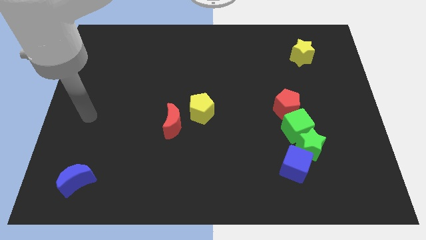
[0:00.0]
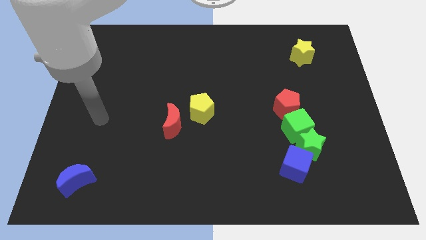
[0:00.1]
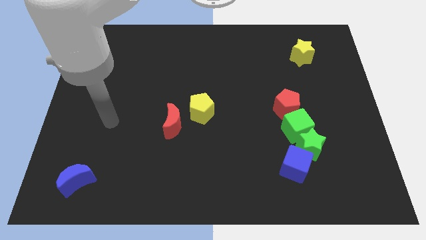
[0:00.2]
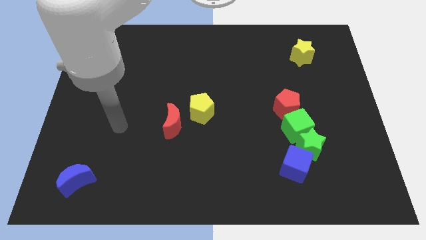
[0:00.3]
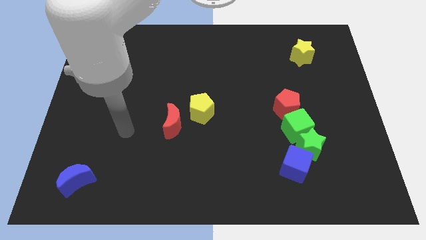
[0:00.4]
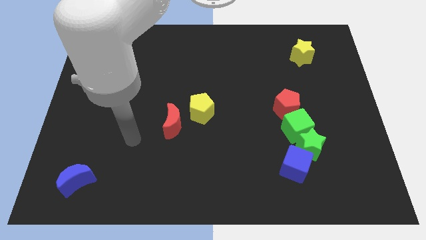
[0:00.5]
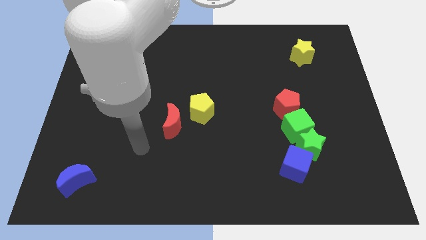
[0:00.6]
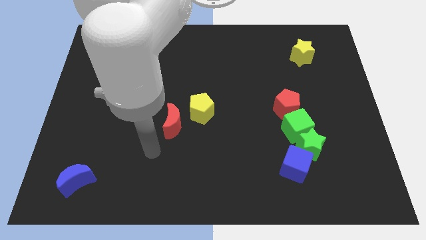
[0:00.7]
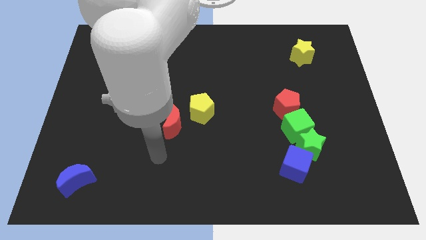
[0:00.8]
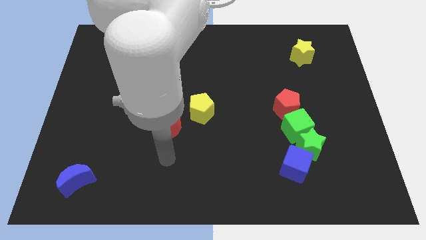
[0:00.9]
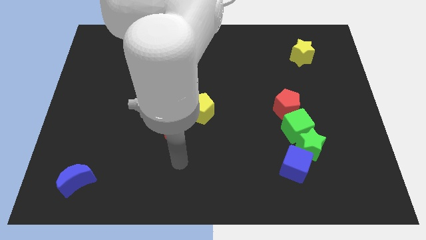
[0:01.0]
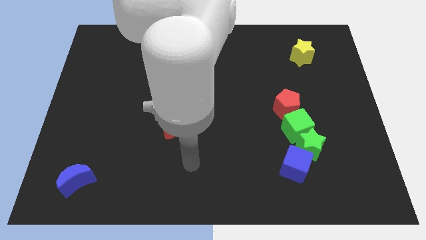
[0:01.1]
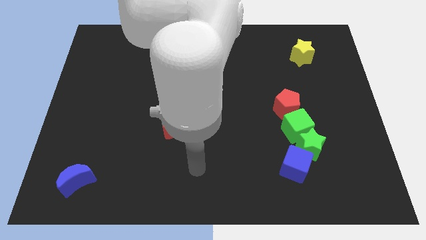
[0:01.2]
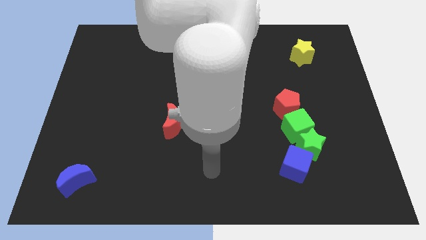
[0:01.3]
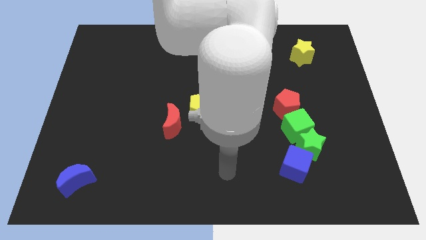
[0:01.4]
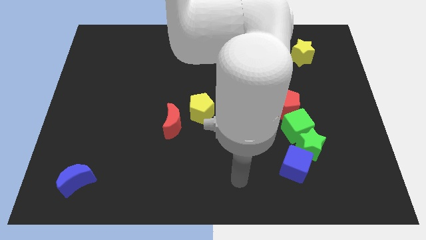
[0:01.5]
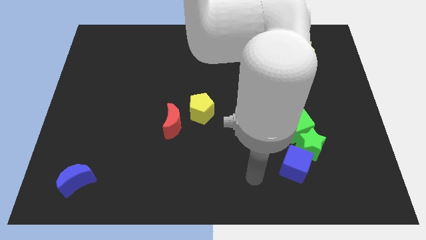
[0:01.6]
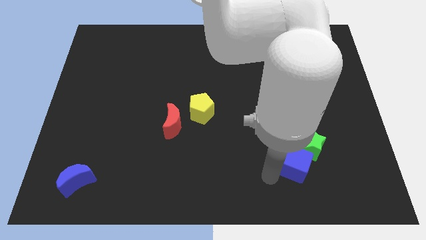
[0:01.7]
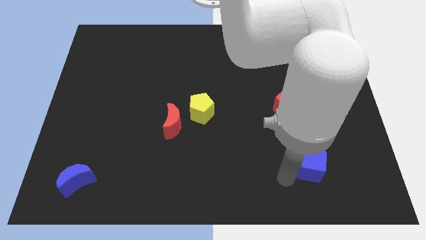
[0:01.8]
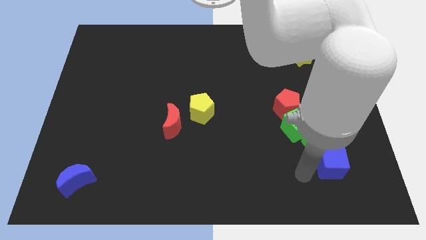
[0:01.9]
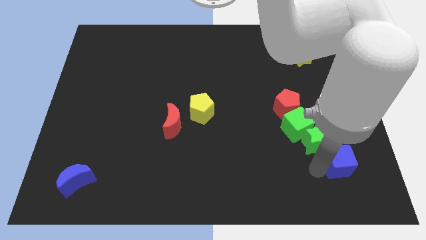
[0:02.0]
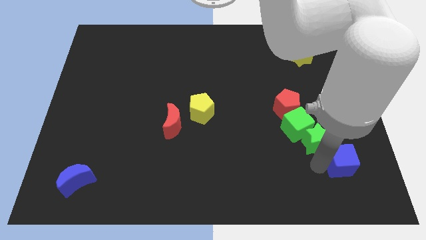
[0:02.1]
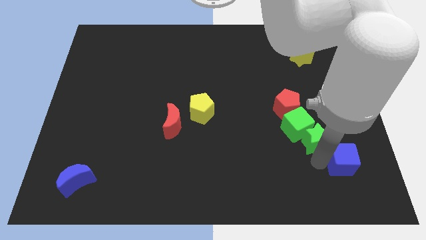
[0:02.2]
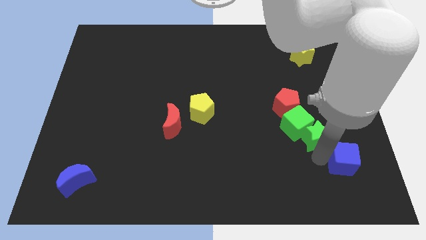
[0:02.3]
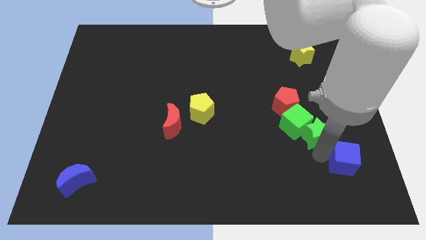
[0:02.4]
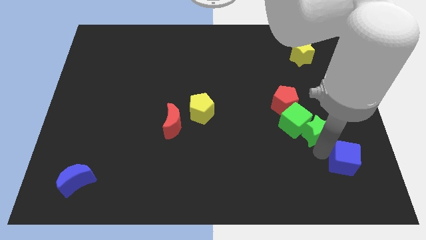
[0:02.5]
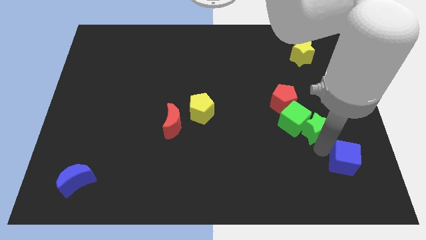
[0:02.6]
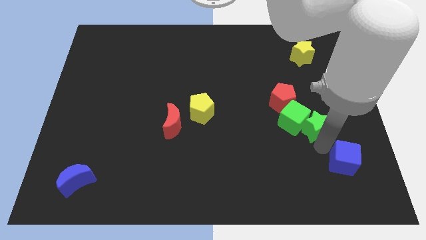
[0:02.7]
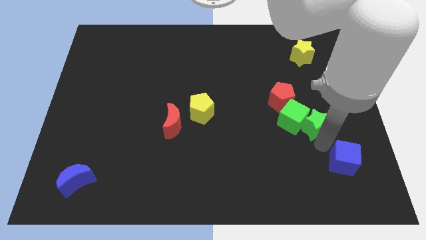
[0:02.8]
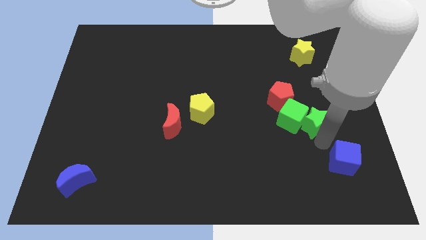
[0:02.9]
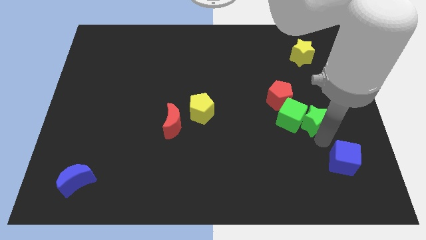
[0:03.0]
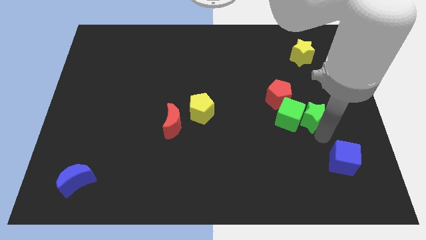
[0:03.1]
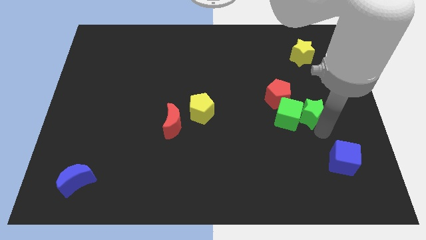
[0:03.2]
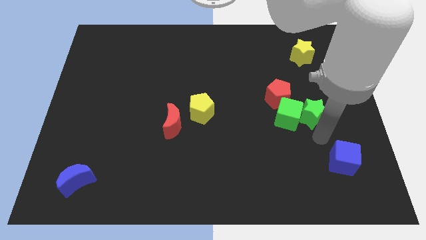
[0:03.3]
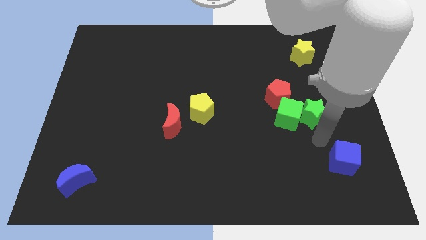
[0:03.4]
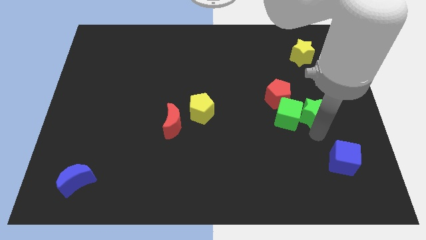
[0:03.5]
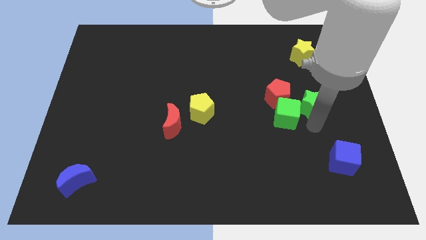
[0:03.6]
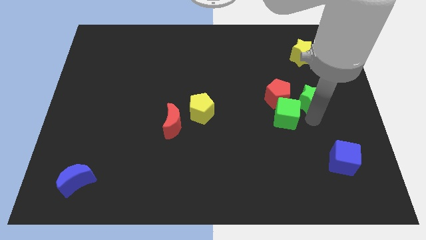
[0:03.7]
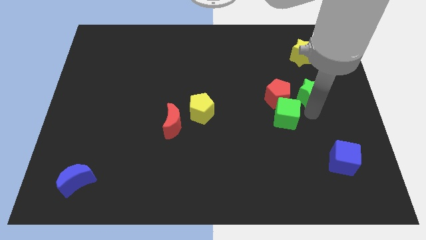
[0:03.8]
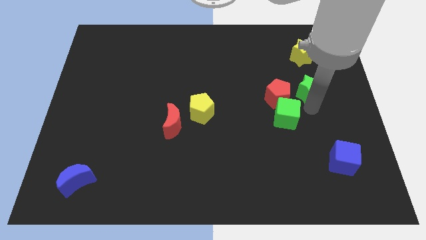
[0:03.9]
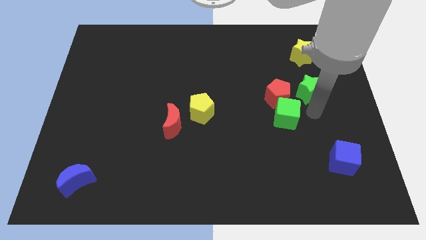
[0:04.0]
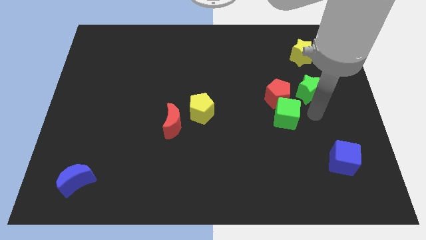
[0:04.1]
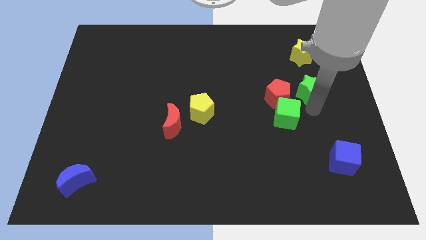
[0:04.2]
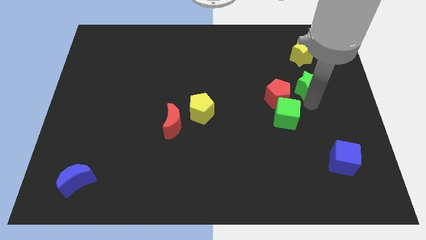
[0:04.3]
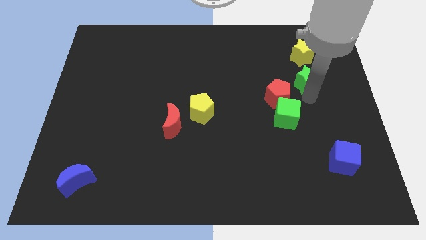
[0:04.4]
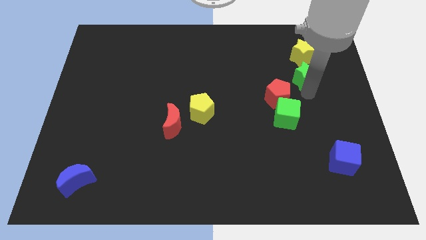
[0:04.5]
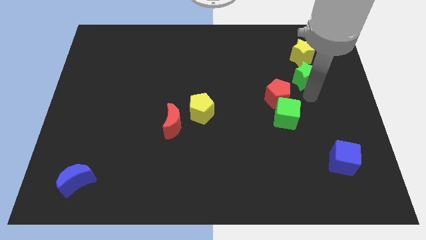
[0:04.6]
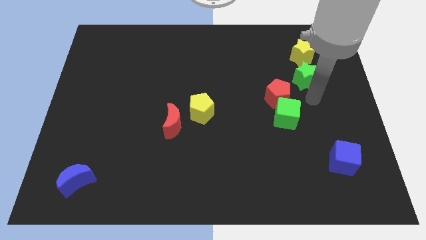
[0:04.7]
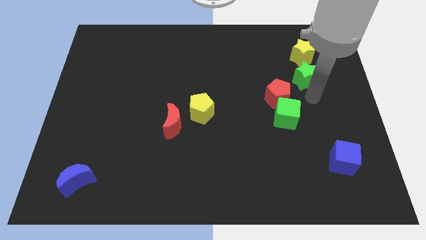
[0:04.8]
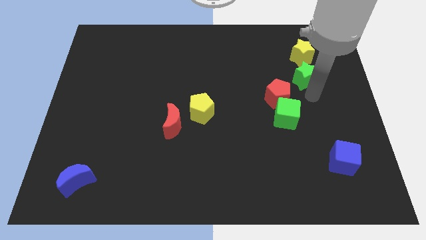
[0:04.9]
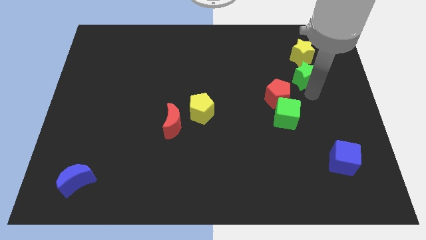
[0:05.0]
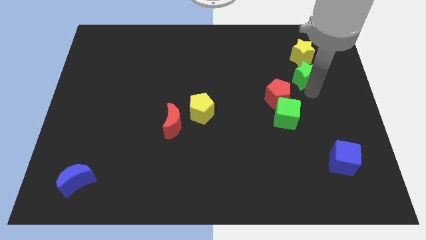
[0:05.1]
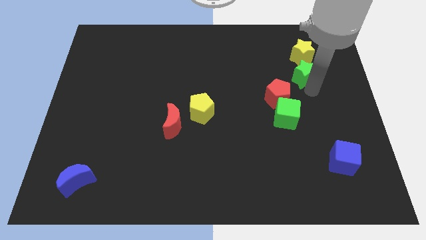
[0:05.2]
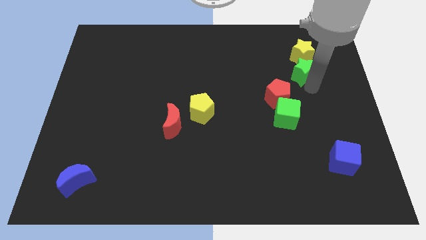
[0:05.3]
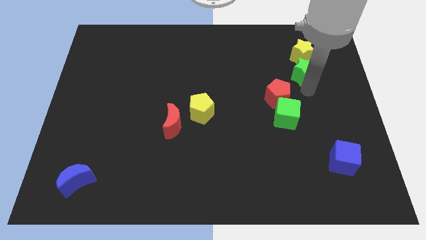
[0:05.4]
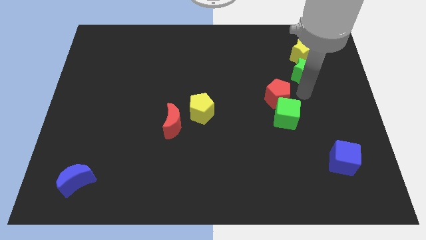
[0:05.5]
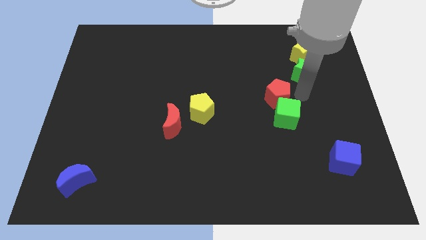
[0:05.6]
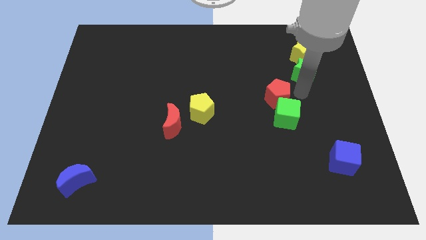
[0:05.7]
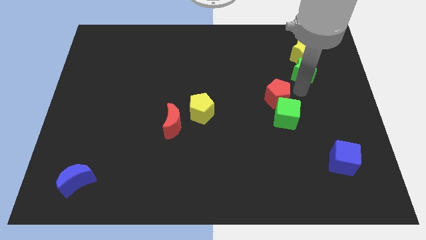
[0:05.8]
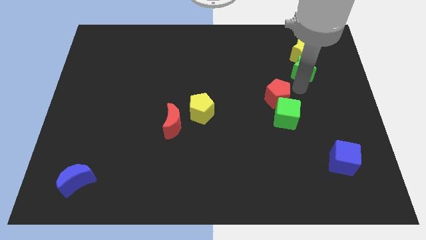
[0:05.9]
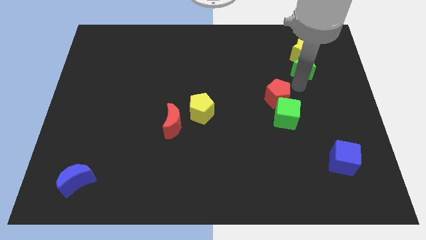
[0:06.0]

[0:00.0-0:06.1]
slide the green star towards the yellow star
